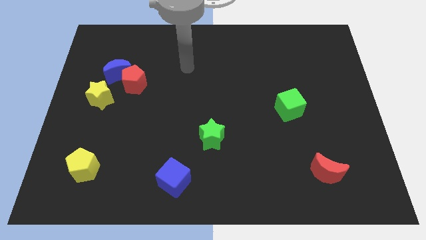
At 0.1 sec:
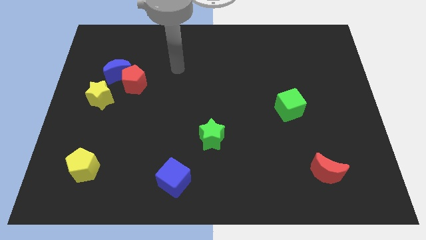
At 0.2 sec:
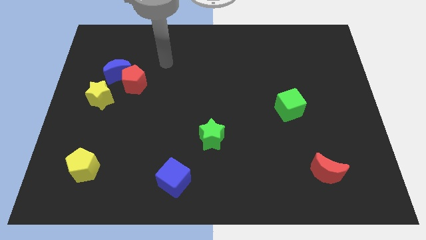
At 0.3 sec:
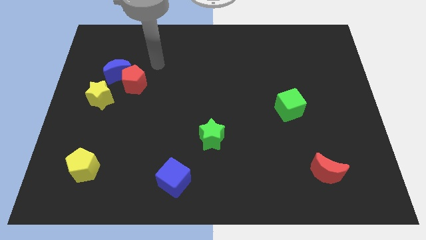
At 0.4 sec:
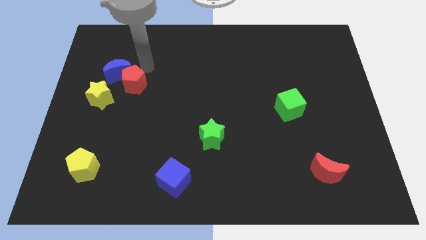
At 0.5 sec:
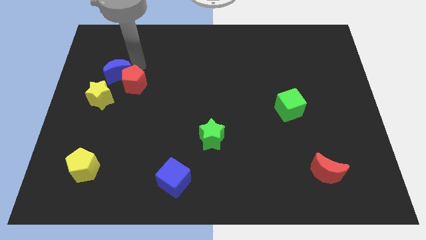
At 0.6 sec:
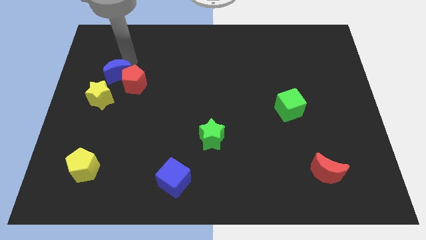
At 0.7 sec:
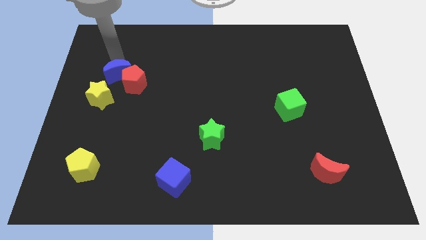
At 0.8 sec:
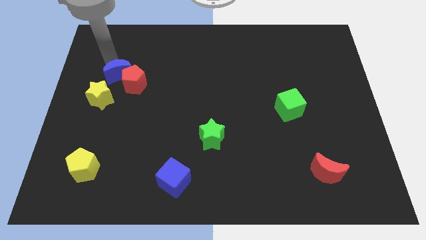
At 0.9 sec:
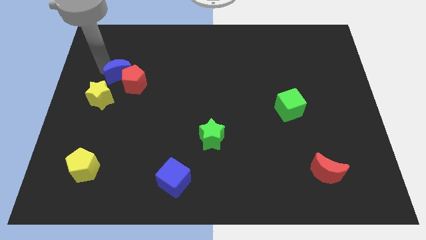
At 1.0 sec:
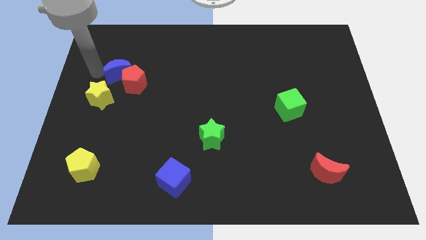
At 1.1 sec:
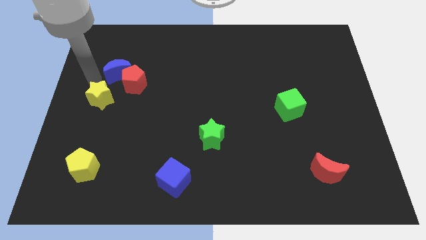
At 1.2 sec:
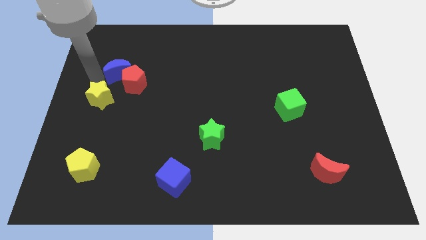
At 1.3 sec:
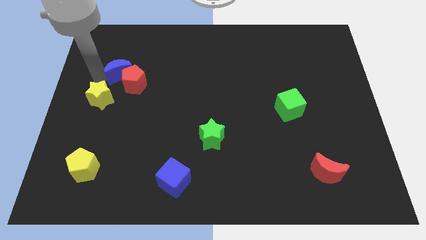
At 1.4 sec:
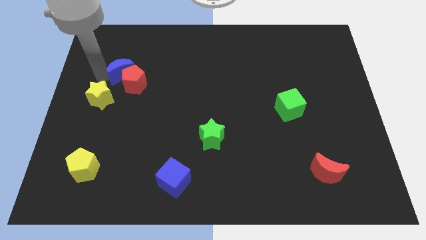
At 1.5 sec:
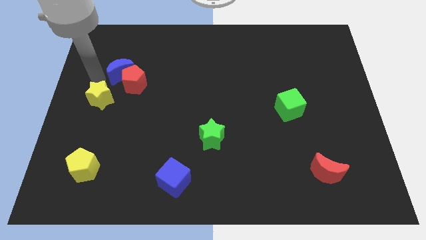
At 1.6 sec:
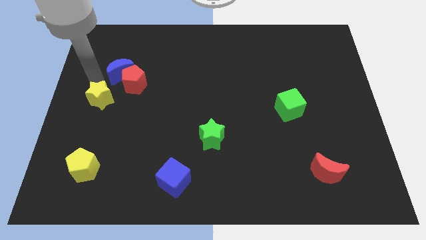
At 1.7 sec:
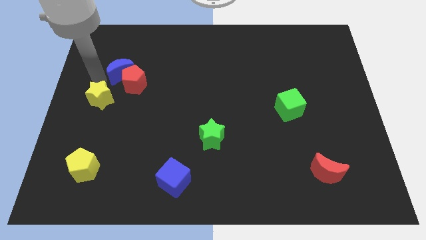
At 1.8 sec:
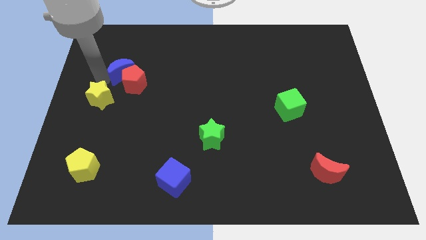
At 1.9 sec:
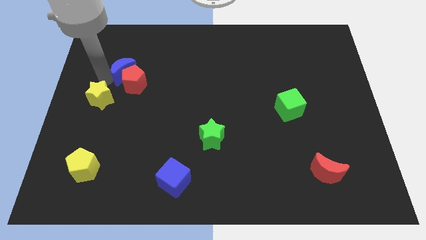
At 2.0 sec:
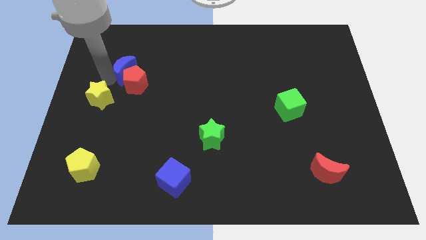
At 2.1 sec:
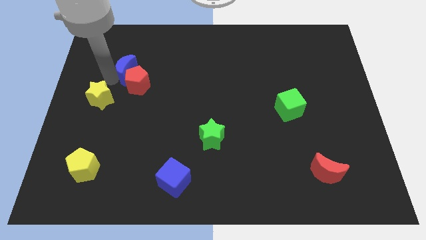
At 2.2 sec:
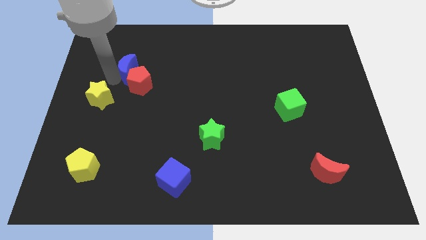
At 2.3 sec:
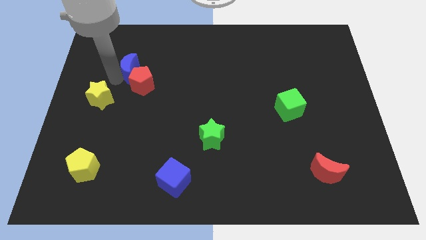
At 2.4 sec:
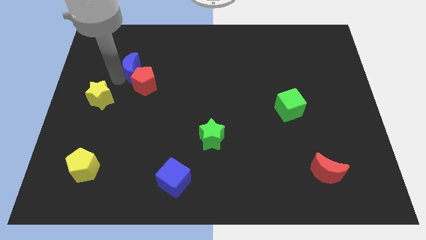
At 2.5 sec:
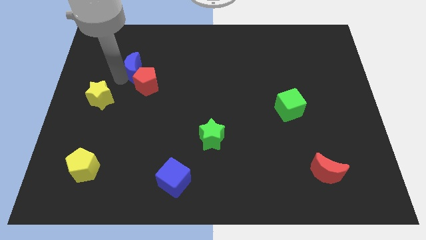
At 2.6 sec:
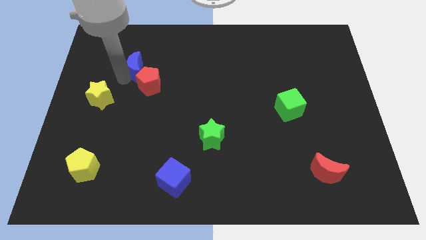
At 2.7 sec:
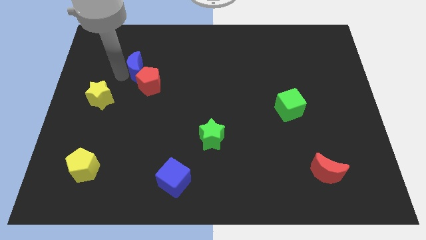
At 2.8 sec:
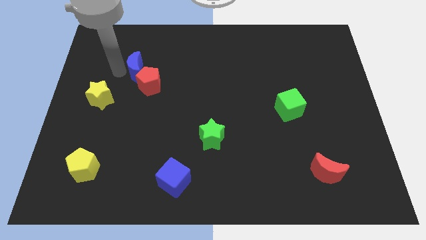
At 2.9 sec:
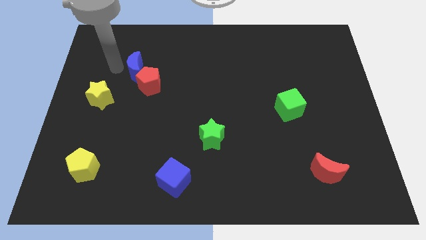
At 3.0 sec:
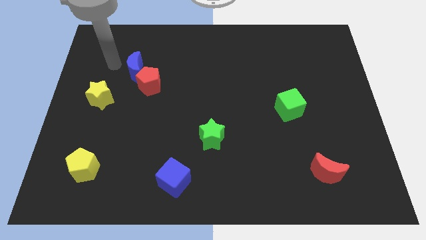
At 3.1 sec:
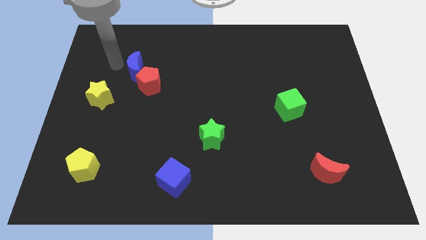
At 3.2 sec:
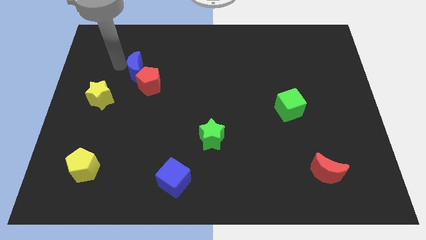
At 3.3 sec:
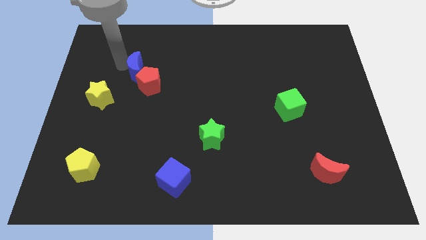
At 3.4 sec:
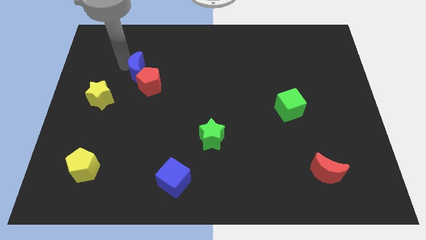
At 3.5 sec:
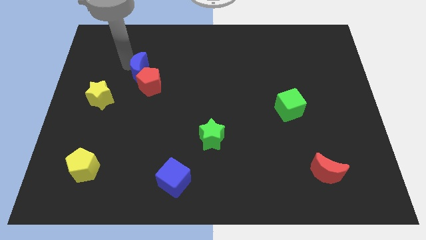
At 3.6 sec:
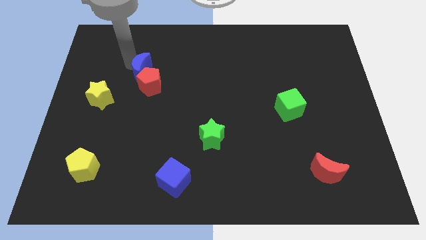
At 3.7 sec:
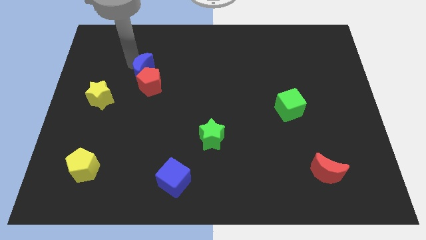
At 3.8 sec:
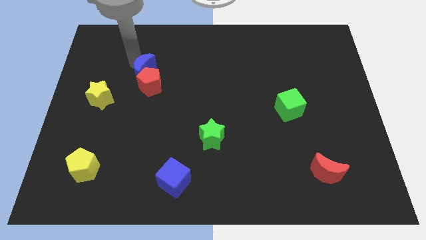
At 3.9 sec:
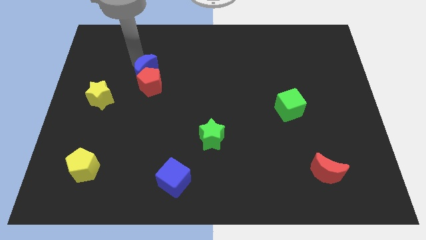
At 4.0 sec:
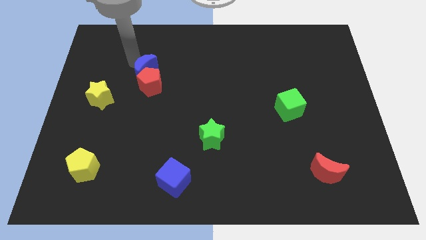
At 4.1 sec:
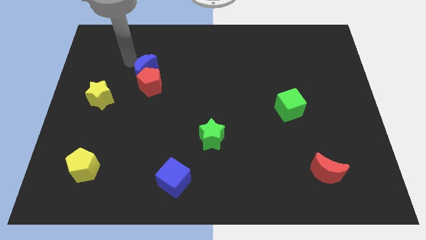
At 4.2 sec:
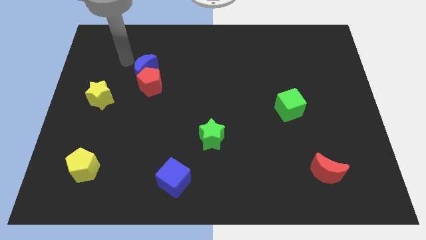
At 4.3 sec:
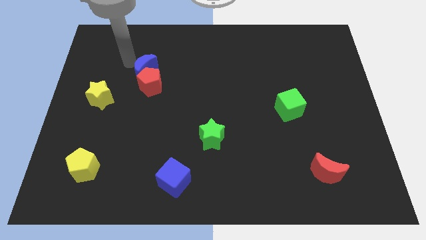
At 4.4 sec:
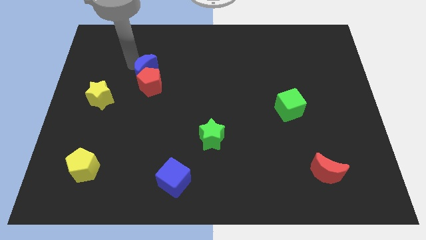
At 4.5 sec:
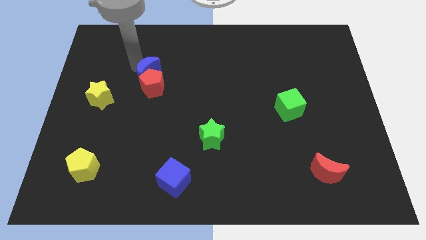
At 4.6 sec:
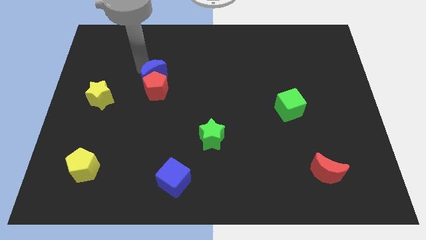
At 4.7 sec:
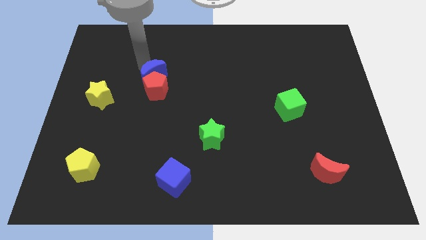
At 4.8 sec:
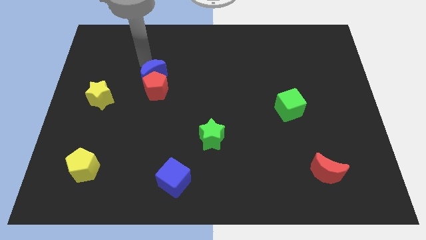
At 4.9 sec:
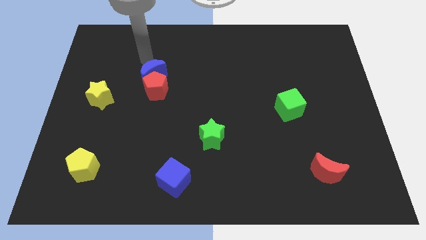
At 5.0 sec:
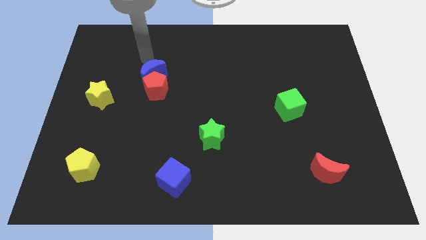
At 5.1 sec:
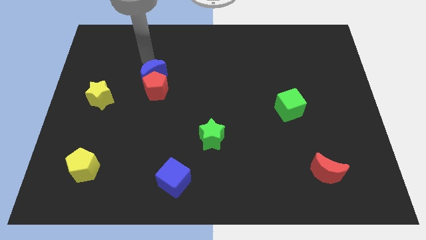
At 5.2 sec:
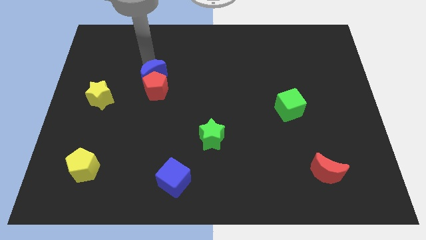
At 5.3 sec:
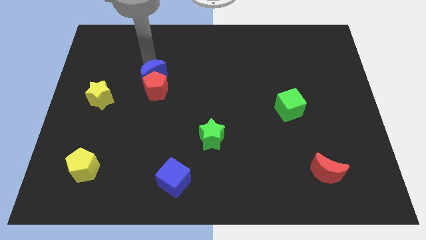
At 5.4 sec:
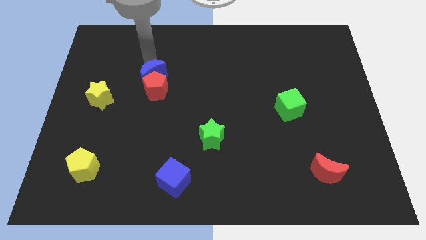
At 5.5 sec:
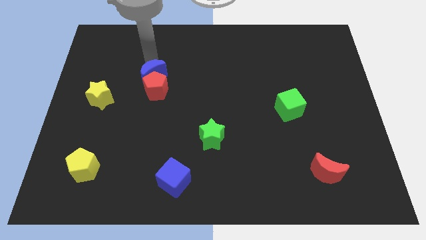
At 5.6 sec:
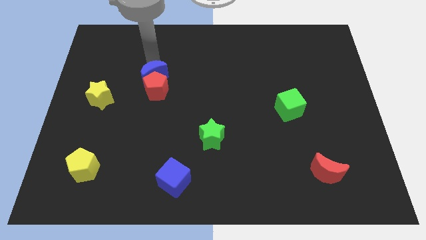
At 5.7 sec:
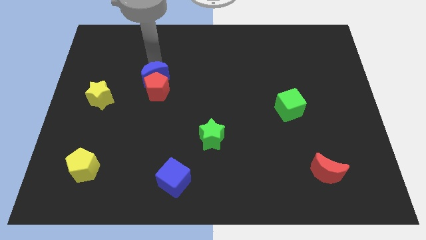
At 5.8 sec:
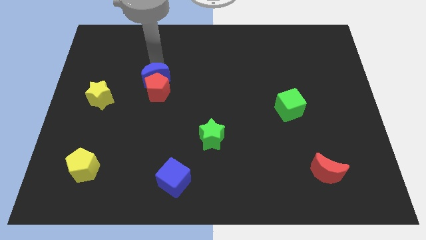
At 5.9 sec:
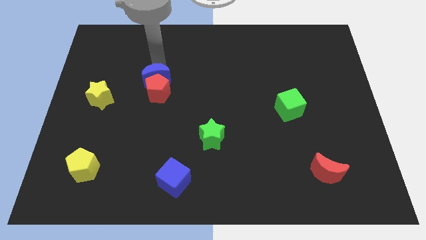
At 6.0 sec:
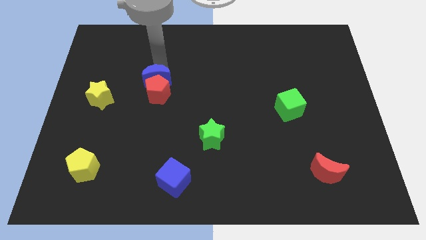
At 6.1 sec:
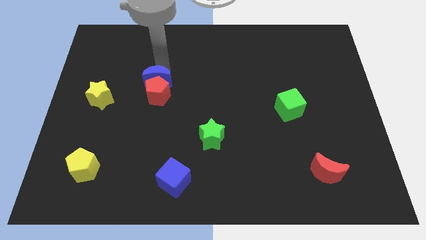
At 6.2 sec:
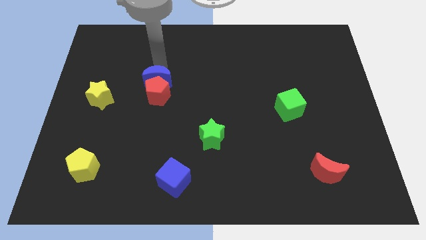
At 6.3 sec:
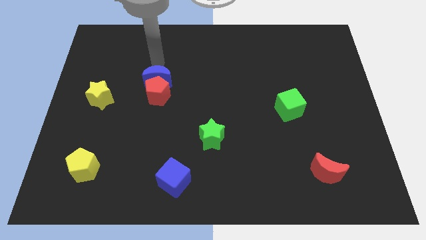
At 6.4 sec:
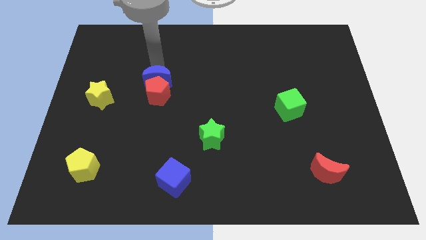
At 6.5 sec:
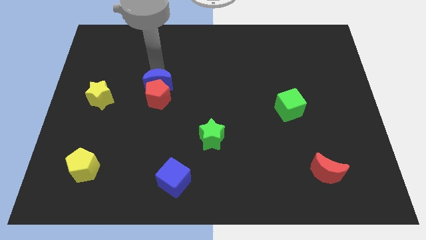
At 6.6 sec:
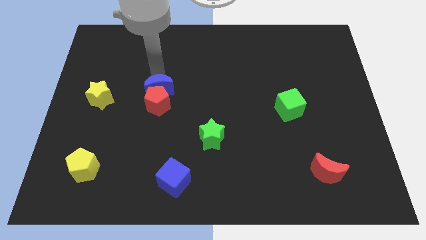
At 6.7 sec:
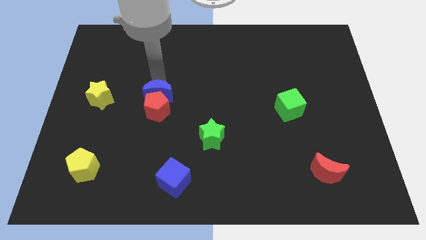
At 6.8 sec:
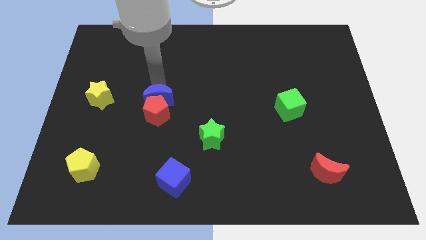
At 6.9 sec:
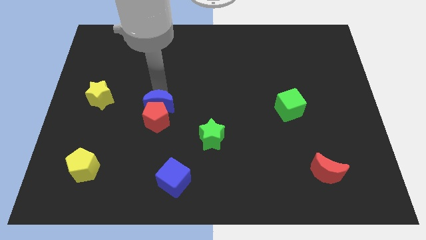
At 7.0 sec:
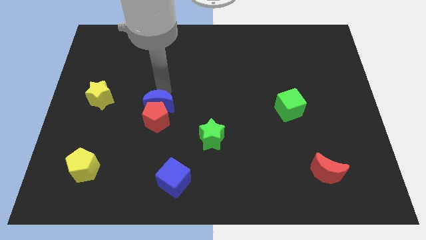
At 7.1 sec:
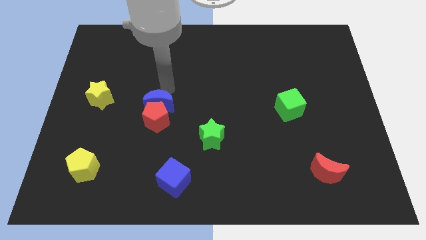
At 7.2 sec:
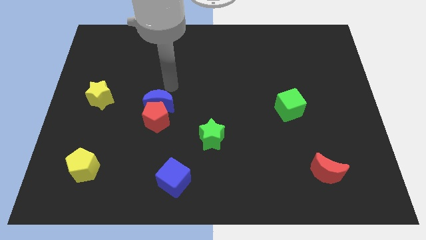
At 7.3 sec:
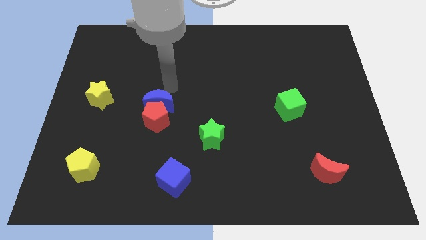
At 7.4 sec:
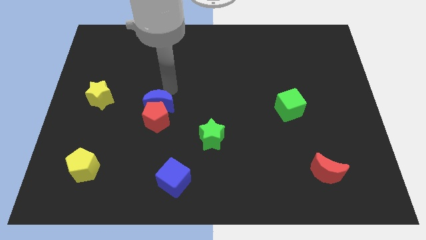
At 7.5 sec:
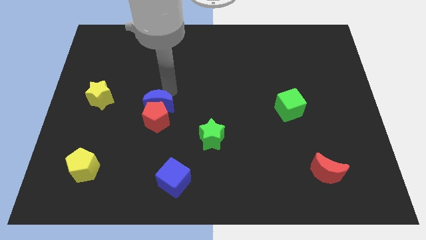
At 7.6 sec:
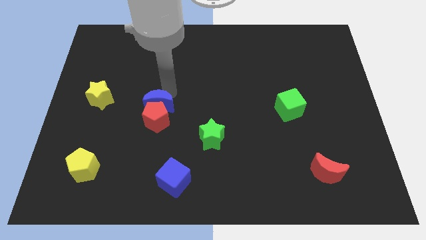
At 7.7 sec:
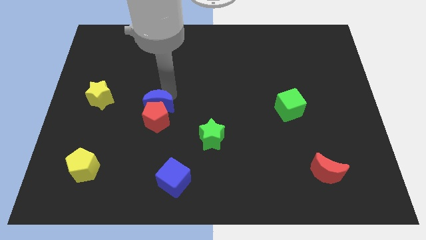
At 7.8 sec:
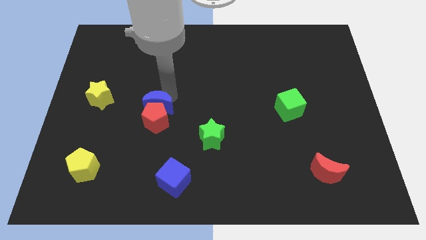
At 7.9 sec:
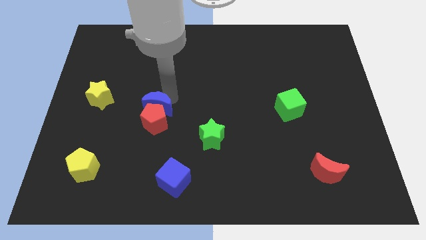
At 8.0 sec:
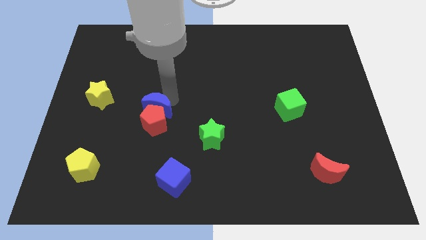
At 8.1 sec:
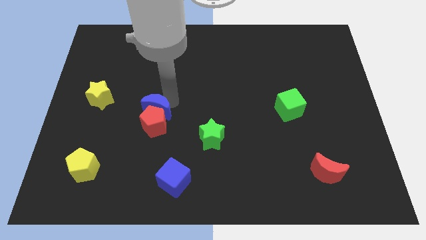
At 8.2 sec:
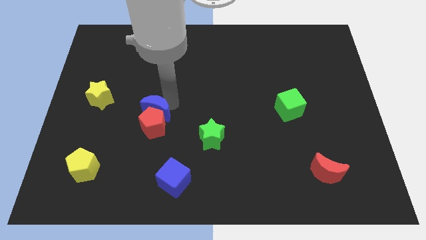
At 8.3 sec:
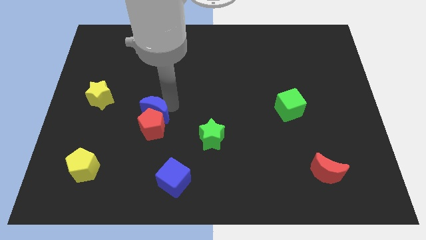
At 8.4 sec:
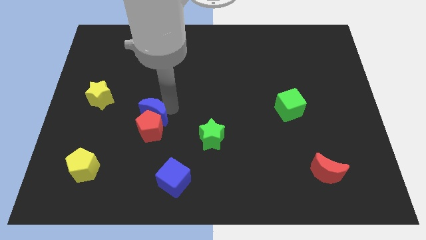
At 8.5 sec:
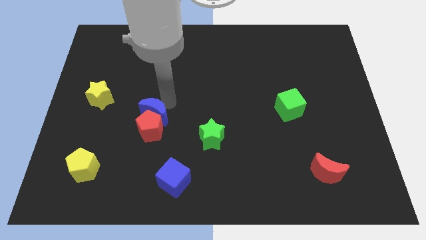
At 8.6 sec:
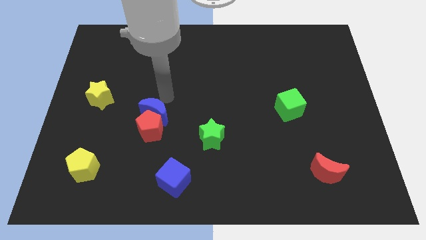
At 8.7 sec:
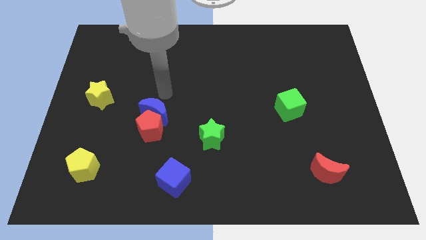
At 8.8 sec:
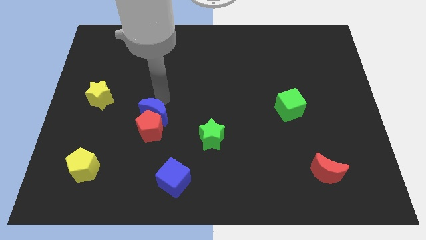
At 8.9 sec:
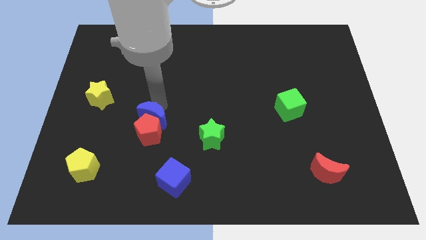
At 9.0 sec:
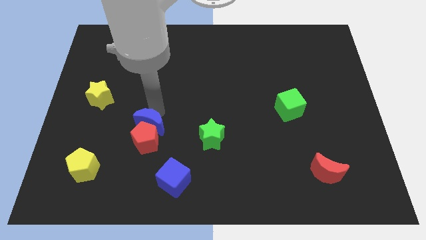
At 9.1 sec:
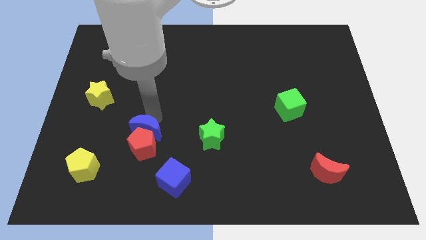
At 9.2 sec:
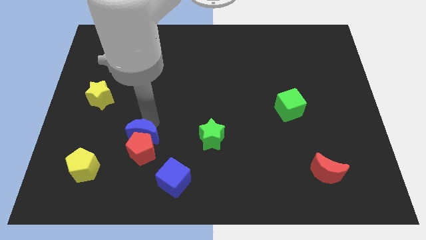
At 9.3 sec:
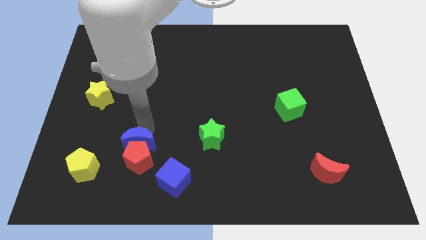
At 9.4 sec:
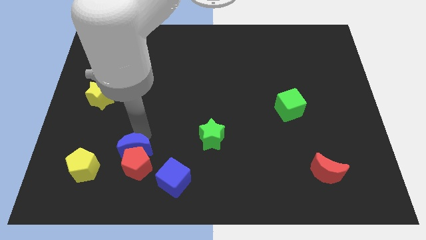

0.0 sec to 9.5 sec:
slide the blue moon just right of the yellow pentagon
